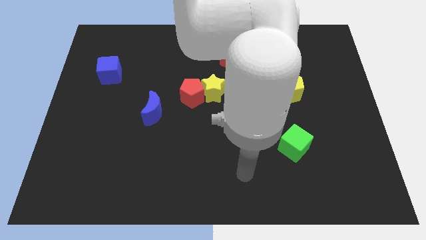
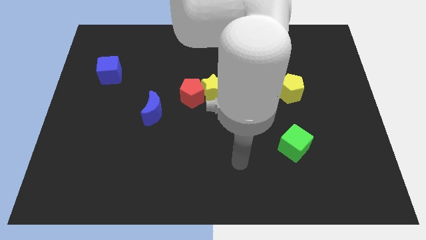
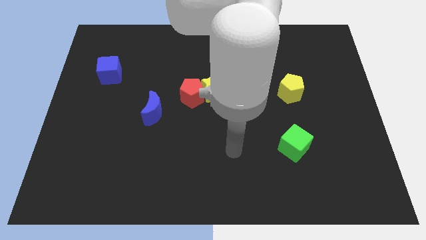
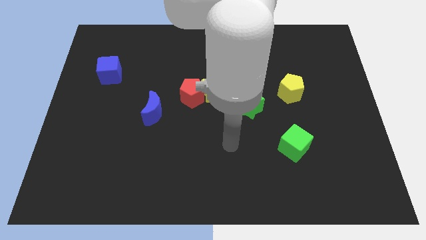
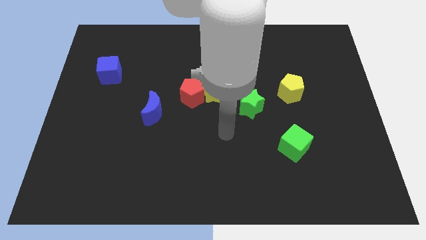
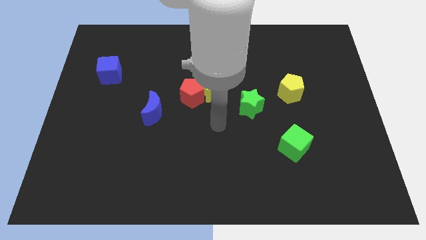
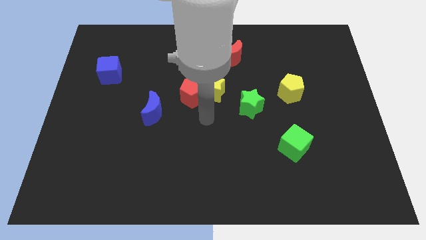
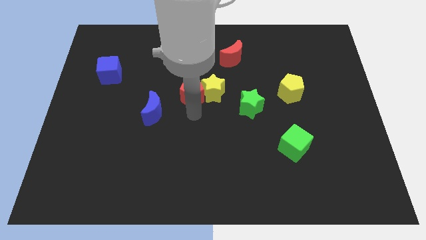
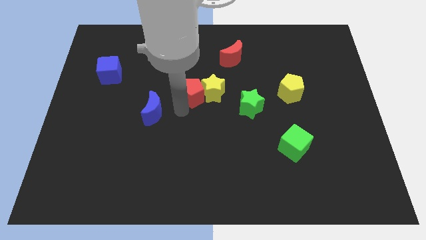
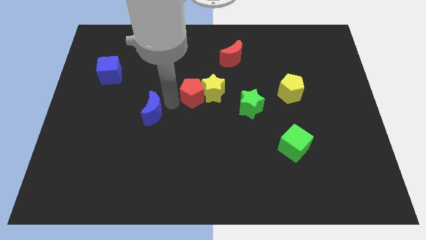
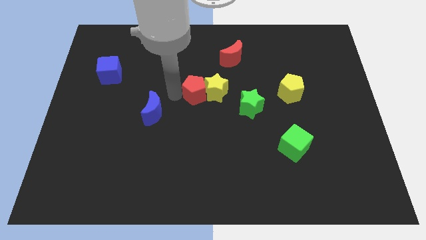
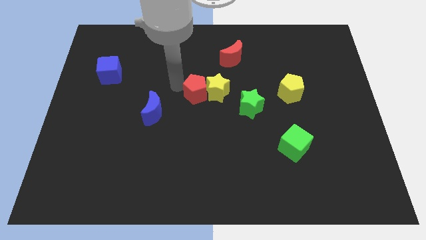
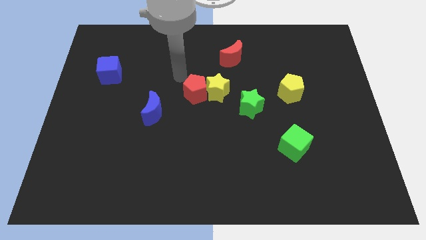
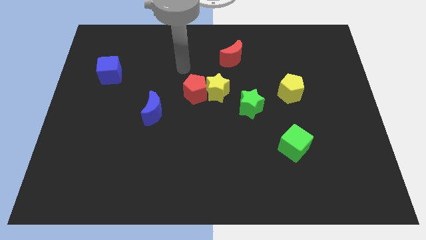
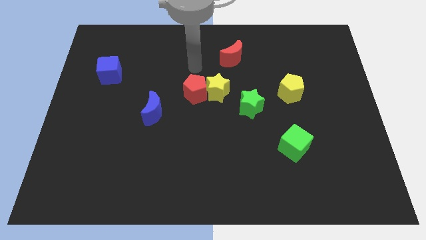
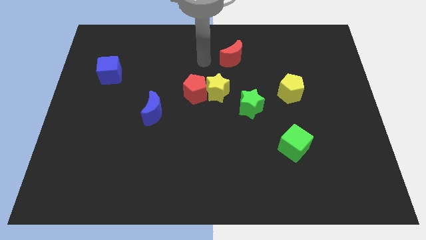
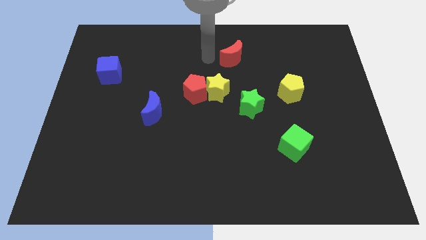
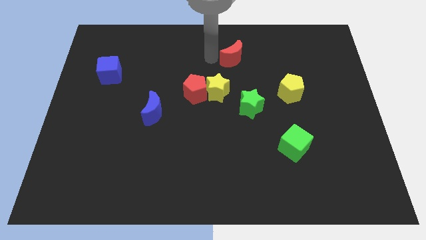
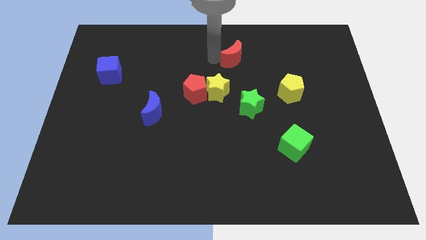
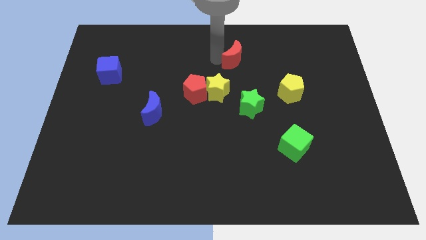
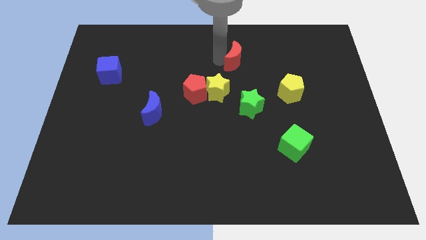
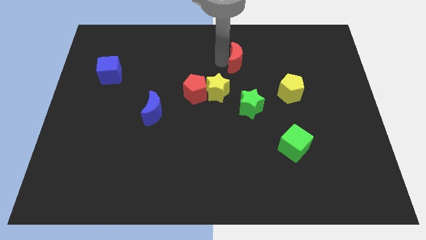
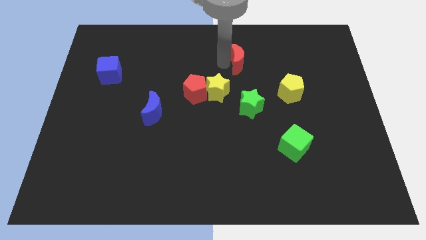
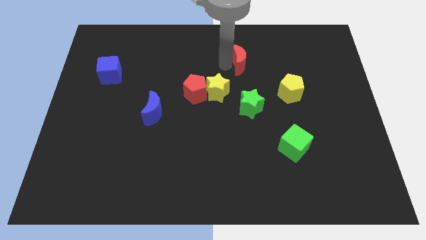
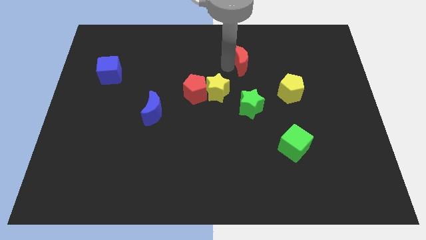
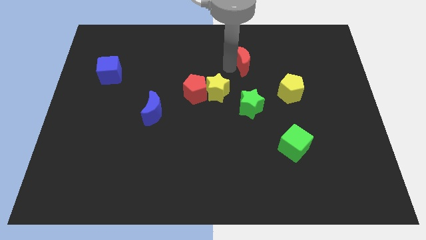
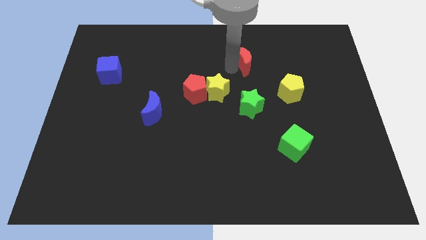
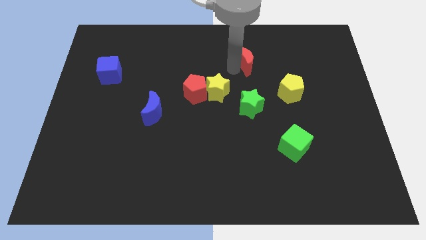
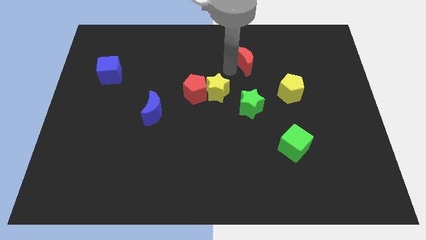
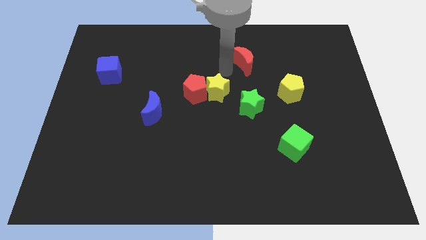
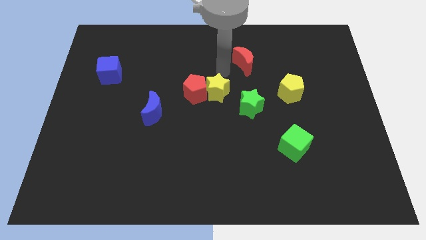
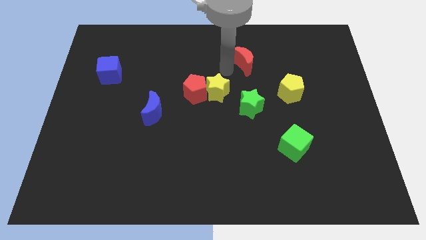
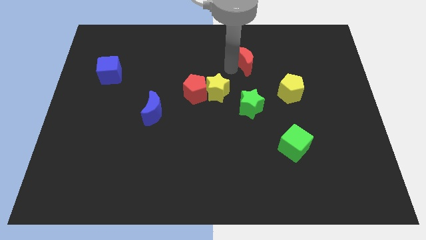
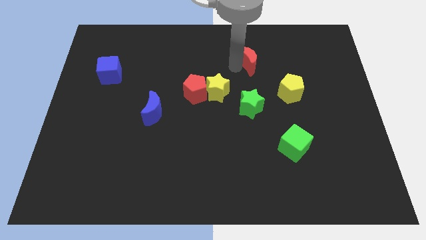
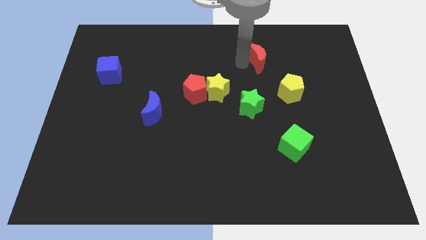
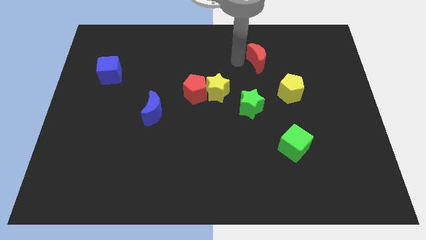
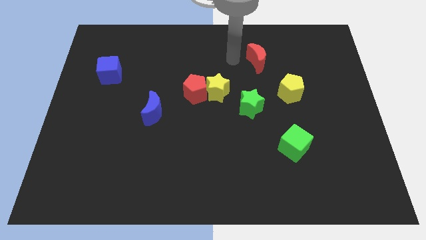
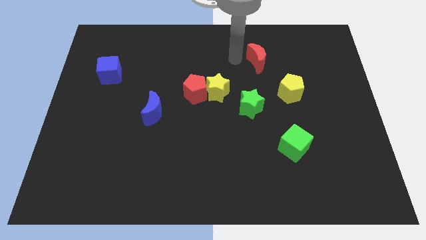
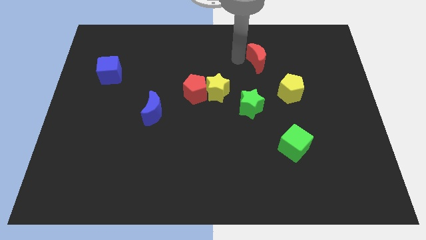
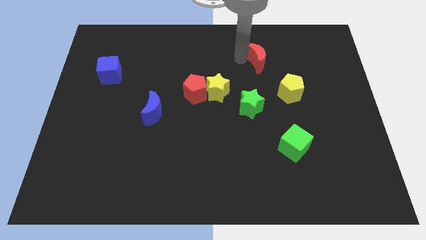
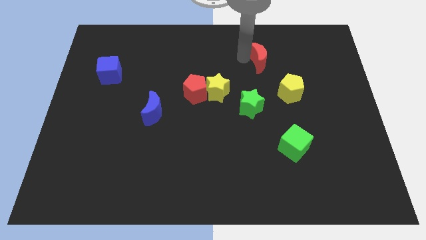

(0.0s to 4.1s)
move the red moon slightly right

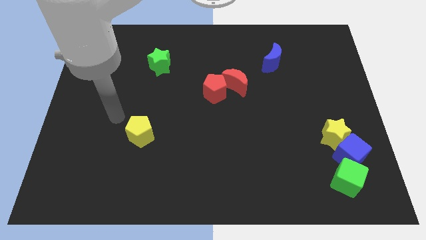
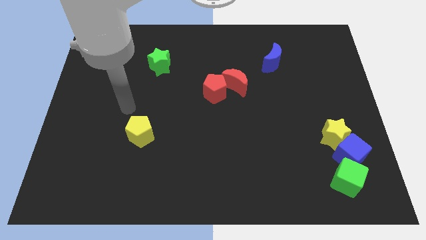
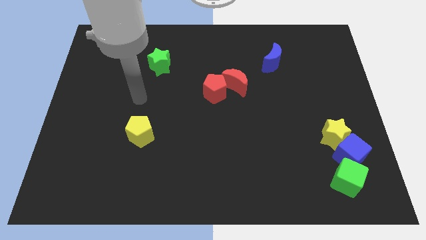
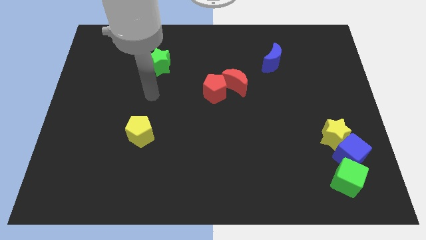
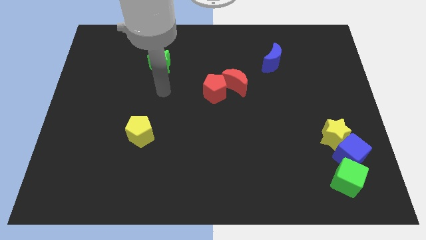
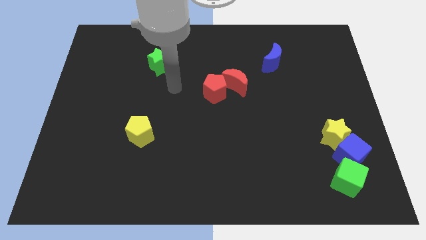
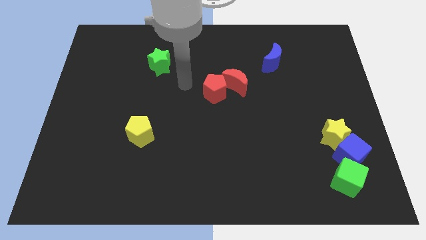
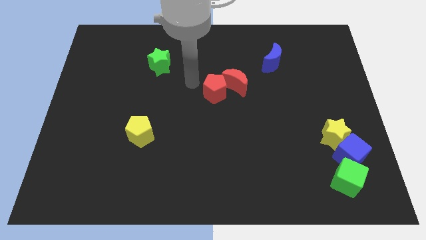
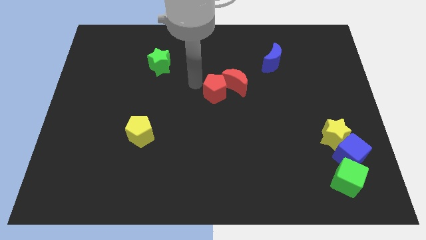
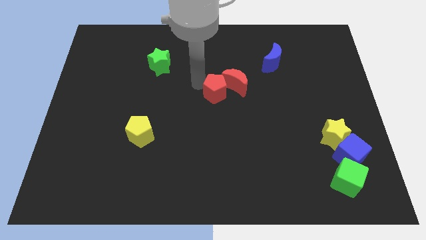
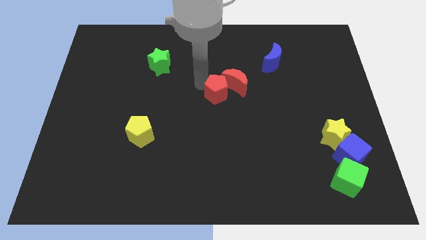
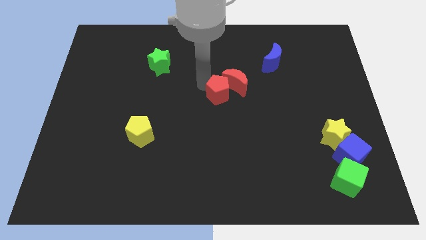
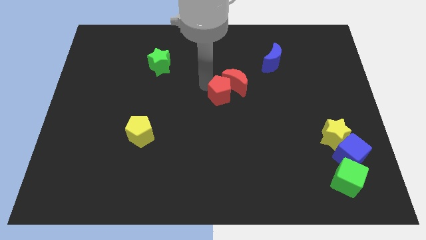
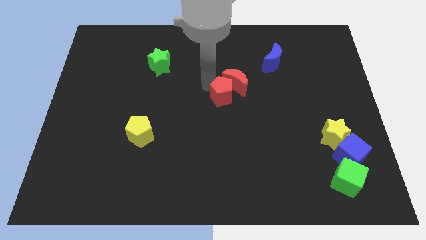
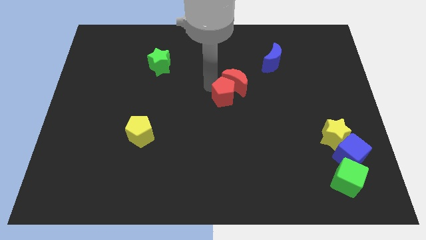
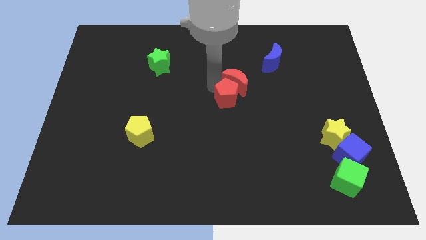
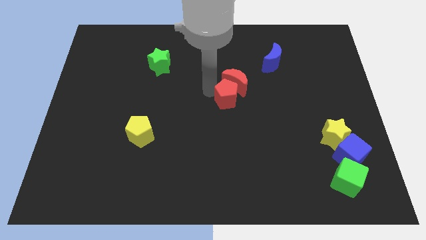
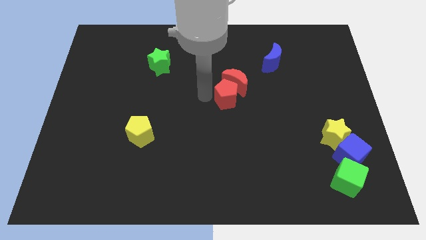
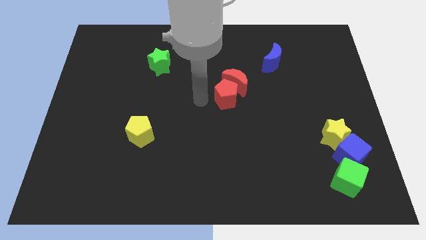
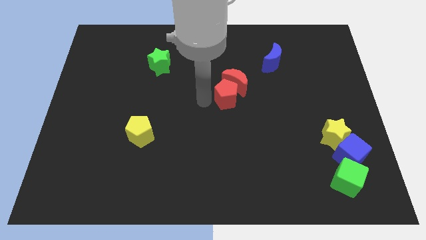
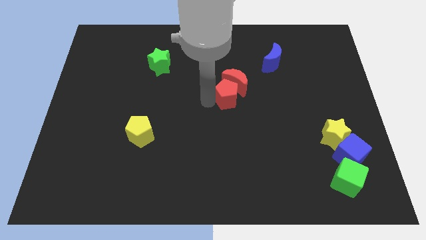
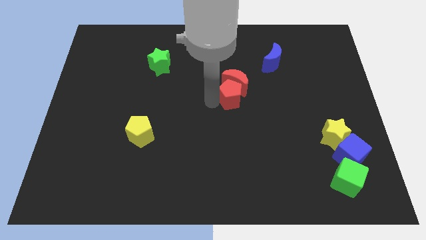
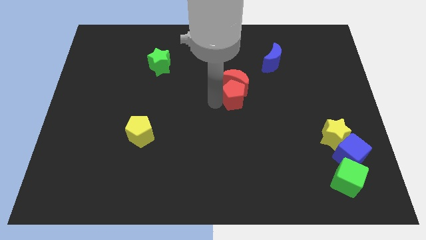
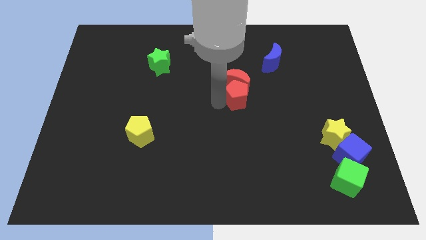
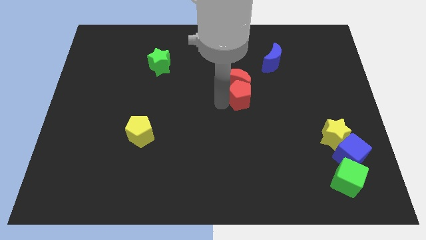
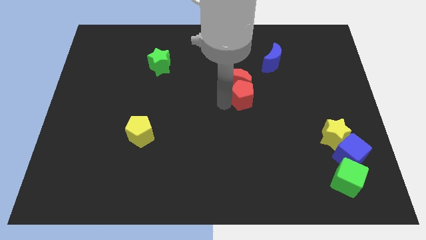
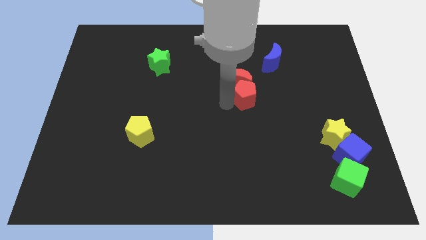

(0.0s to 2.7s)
move the red pentagon right somewhat

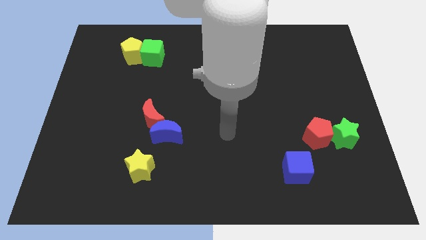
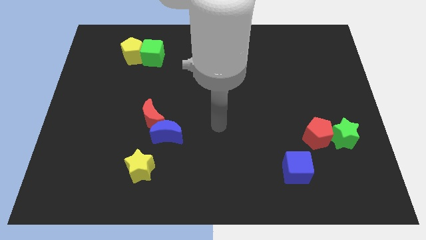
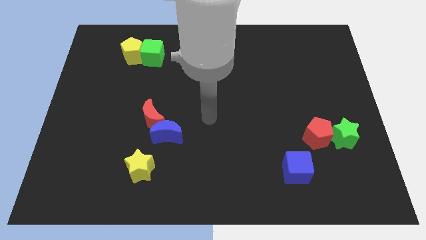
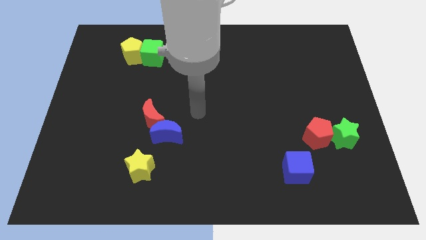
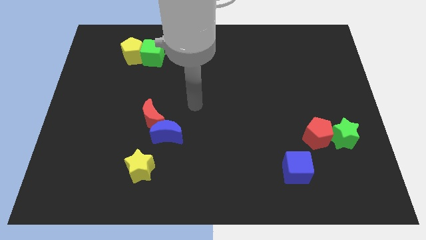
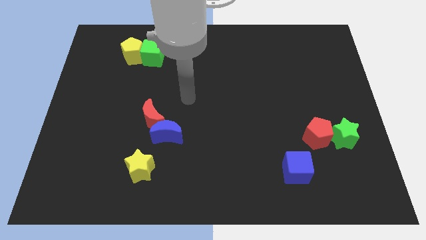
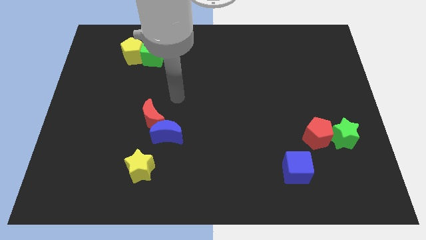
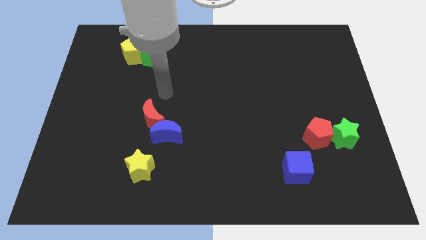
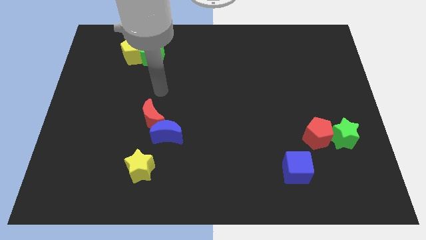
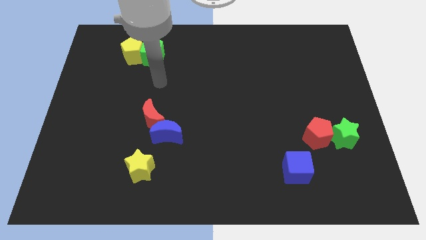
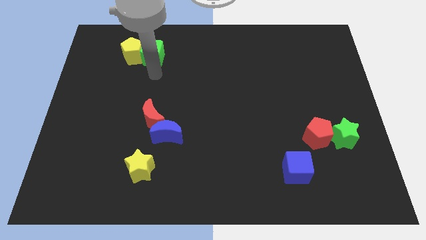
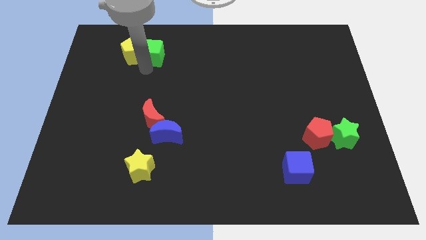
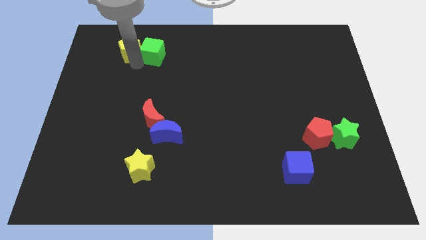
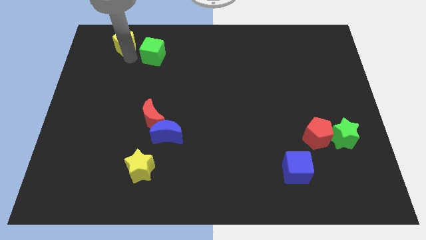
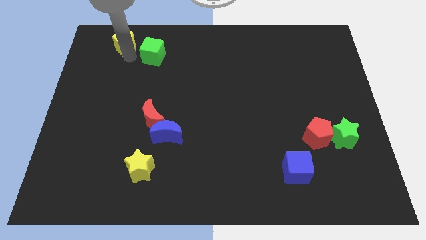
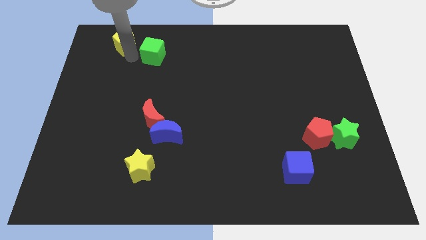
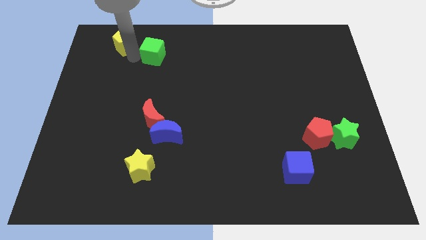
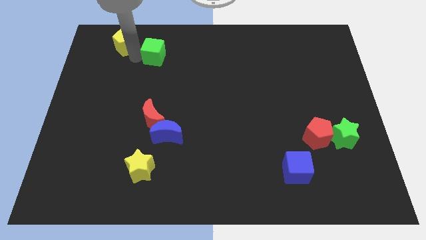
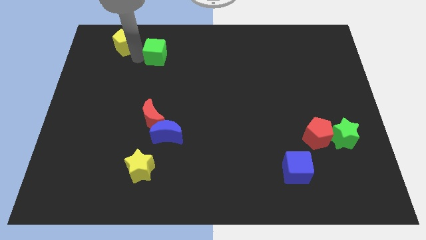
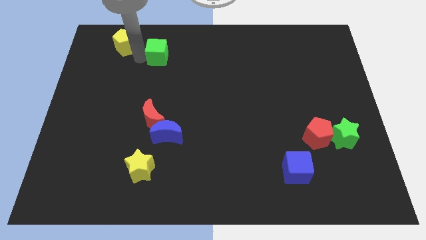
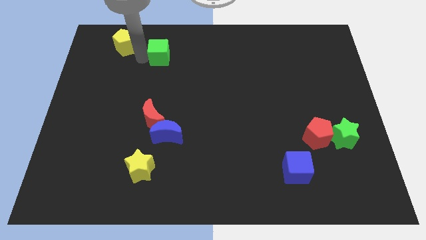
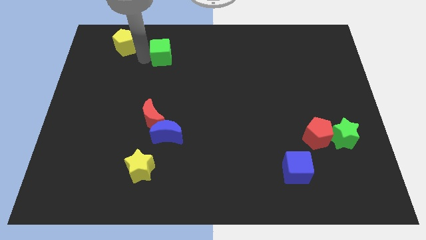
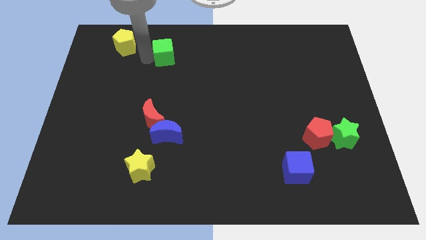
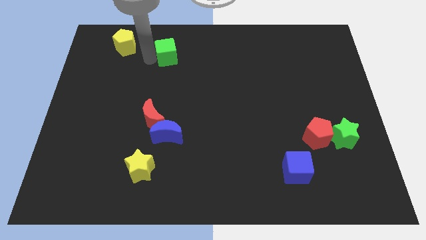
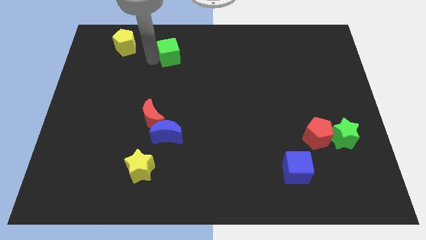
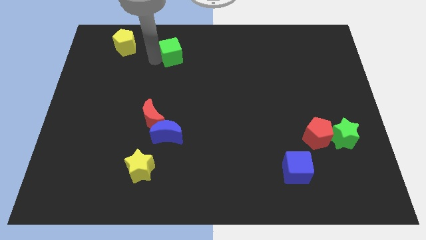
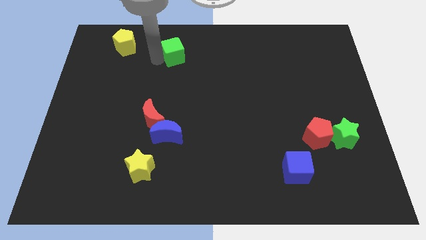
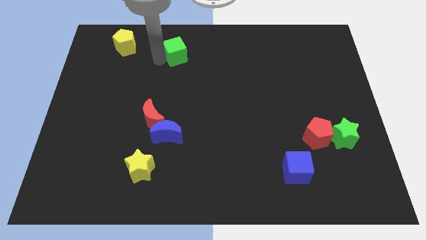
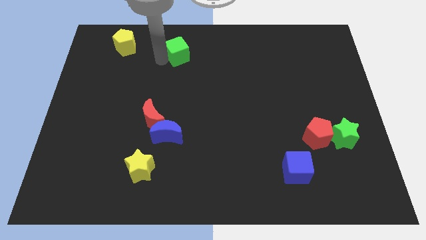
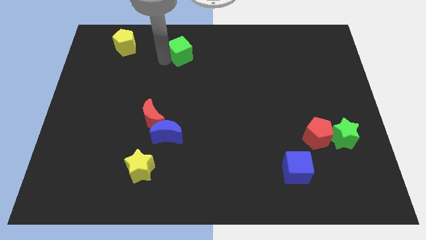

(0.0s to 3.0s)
slightly slide the green cube right
